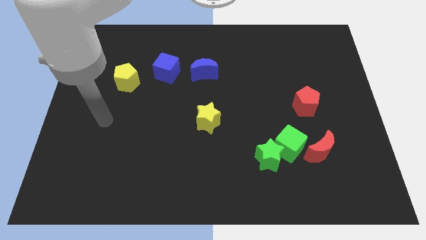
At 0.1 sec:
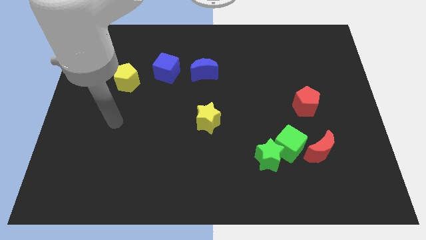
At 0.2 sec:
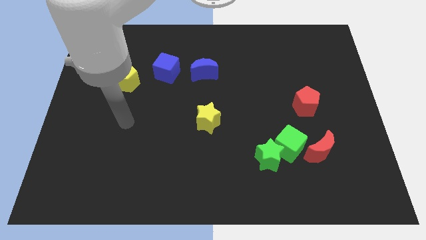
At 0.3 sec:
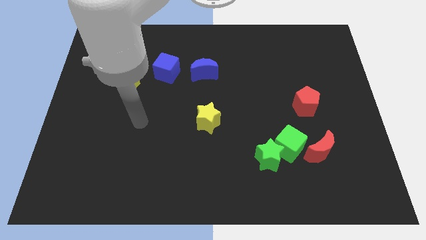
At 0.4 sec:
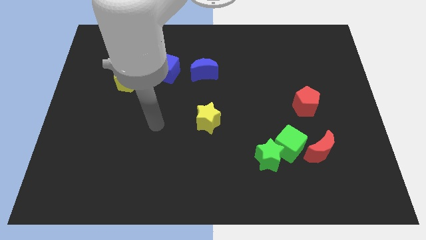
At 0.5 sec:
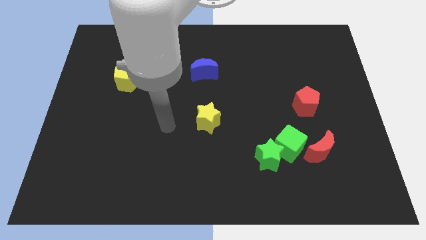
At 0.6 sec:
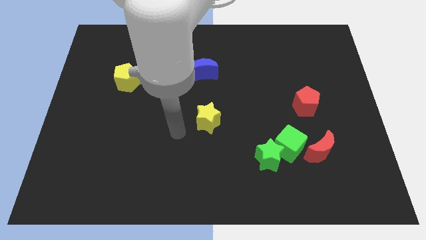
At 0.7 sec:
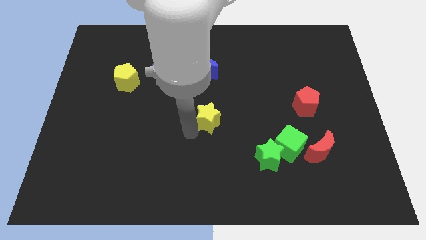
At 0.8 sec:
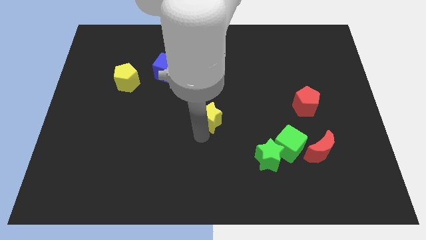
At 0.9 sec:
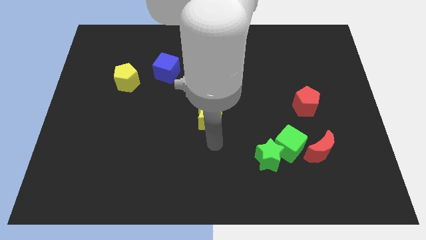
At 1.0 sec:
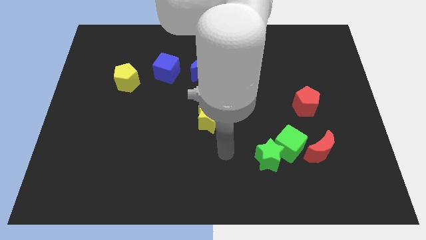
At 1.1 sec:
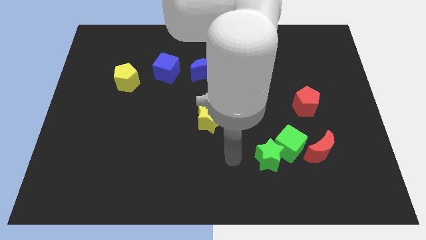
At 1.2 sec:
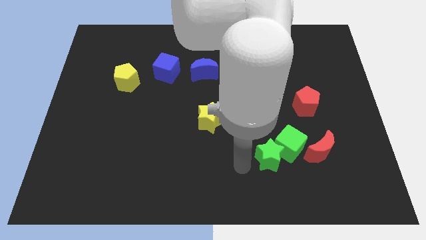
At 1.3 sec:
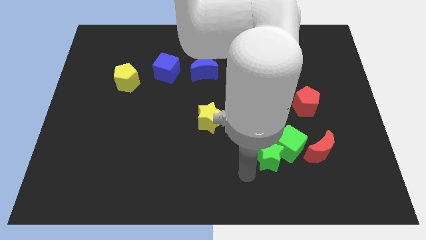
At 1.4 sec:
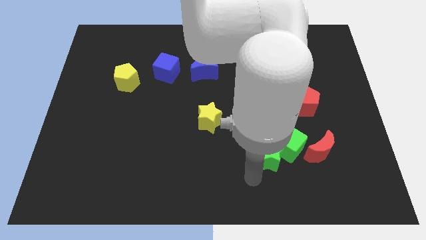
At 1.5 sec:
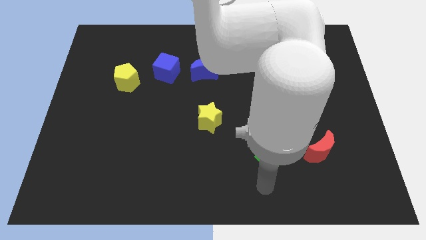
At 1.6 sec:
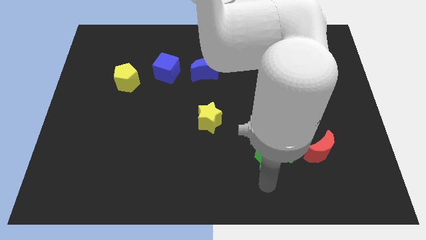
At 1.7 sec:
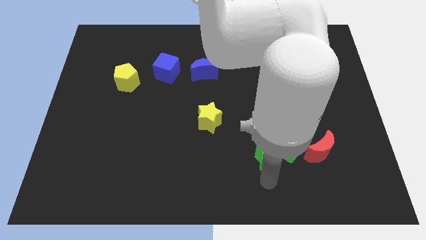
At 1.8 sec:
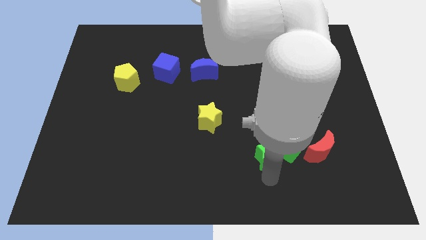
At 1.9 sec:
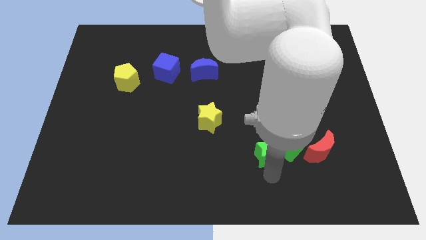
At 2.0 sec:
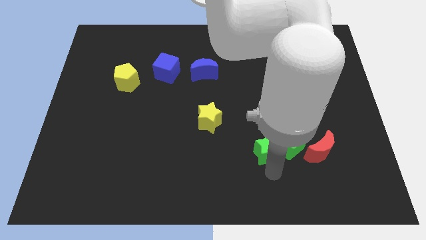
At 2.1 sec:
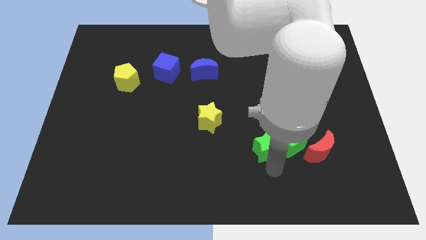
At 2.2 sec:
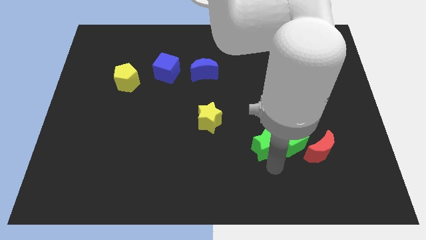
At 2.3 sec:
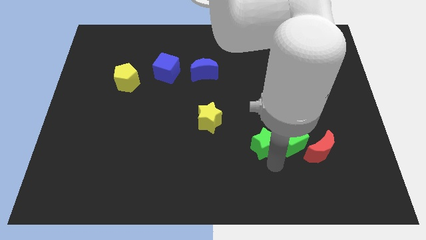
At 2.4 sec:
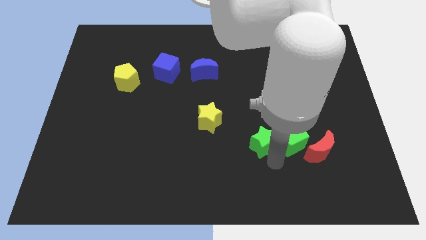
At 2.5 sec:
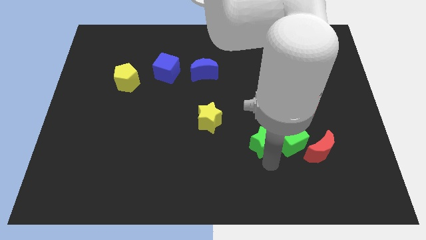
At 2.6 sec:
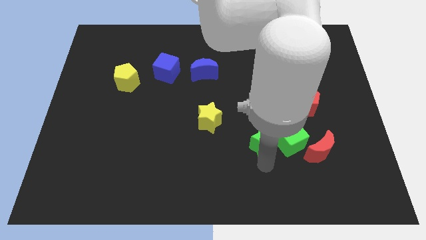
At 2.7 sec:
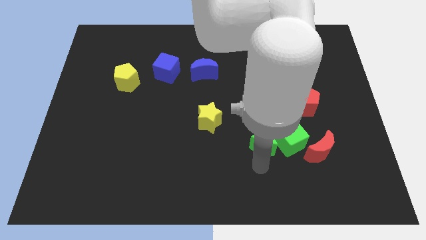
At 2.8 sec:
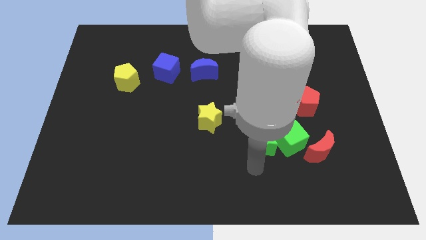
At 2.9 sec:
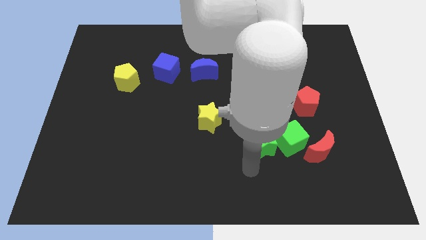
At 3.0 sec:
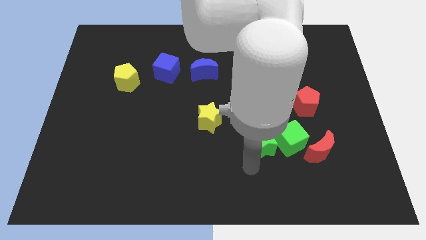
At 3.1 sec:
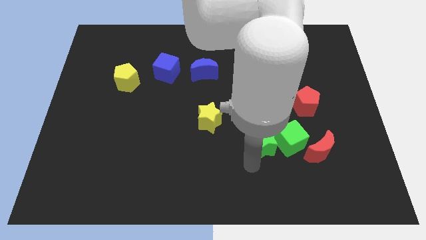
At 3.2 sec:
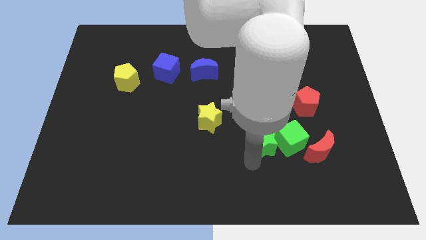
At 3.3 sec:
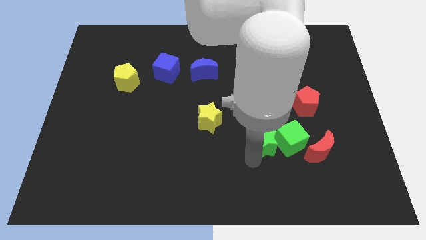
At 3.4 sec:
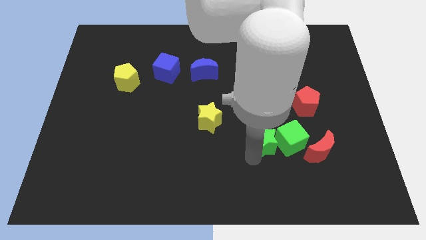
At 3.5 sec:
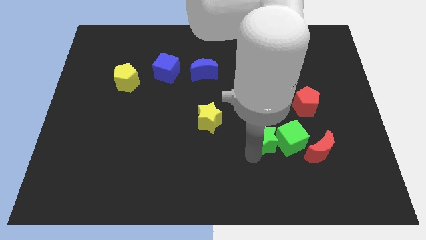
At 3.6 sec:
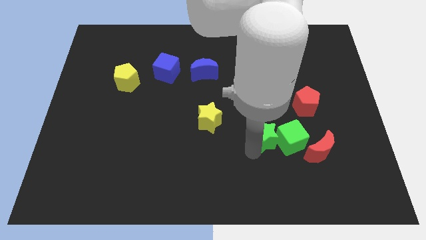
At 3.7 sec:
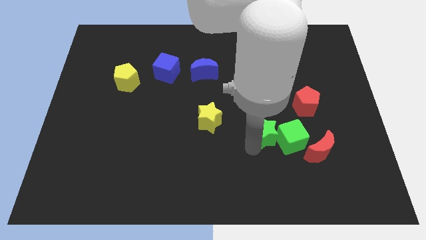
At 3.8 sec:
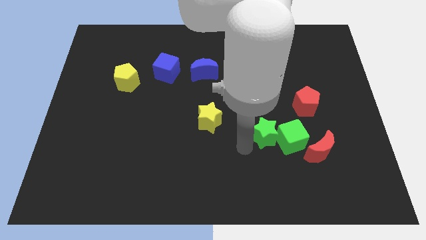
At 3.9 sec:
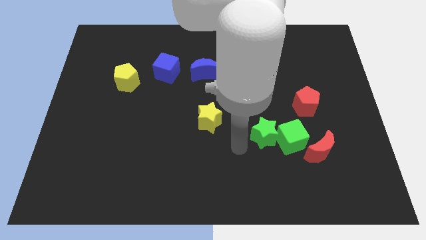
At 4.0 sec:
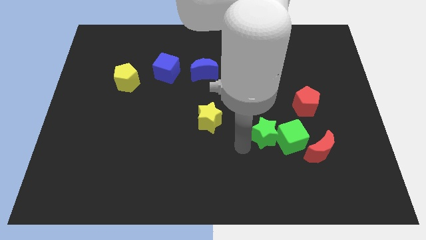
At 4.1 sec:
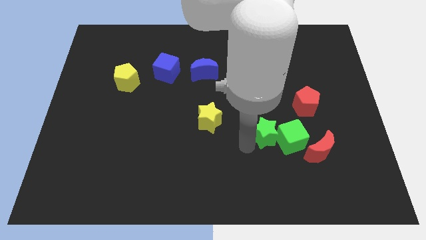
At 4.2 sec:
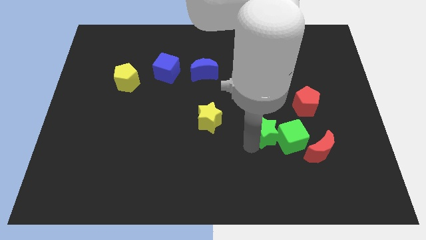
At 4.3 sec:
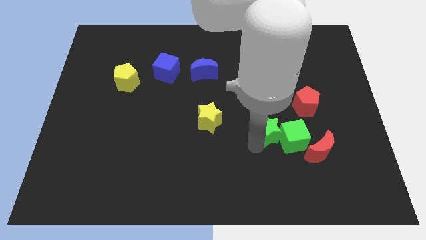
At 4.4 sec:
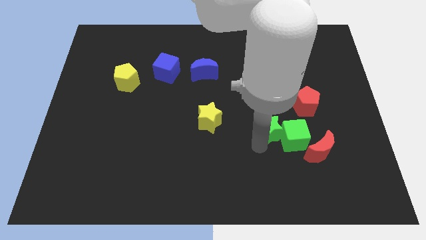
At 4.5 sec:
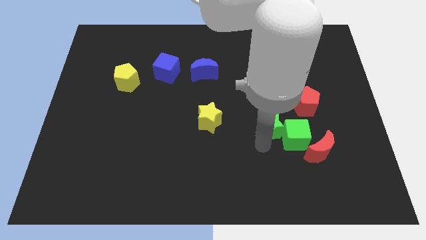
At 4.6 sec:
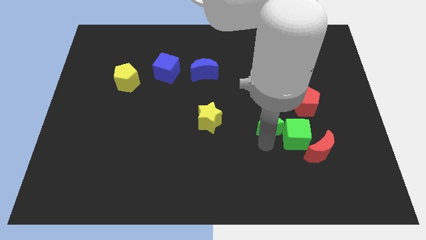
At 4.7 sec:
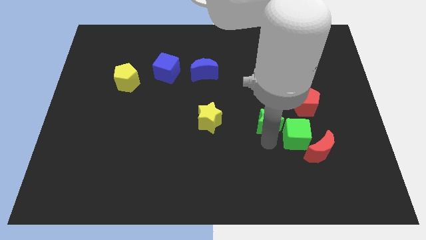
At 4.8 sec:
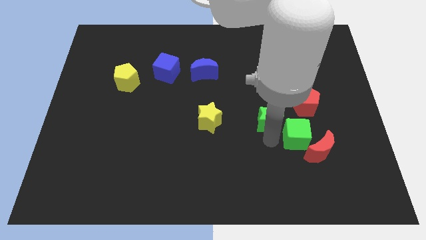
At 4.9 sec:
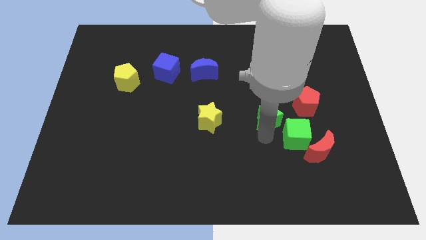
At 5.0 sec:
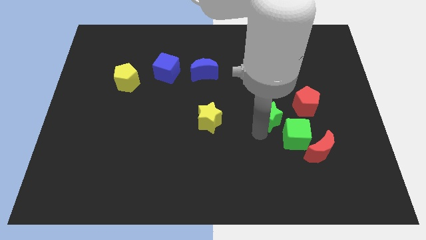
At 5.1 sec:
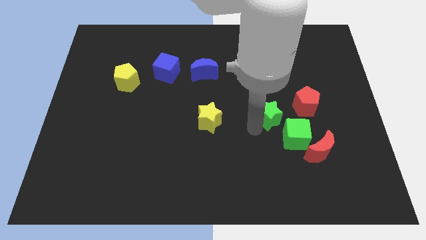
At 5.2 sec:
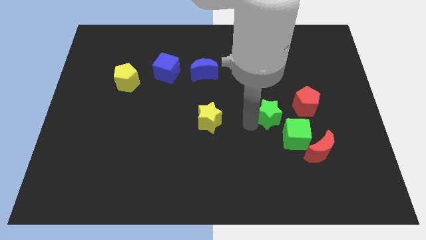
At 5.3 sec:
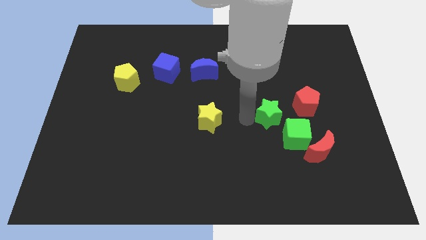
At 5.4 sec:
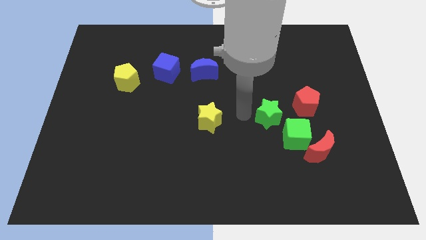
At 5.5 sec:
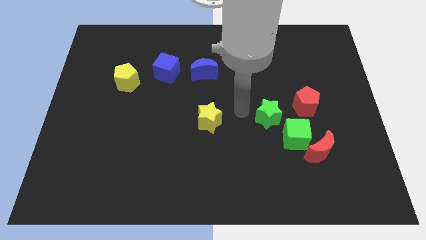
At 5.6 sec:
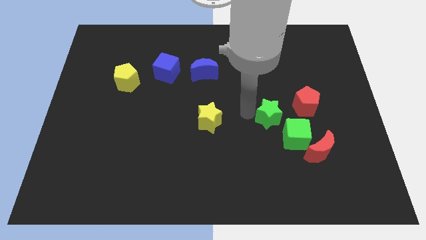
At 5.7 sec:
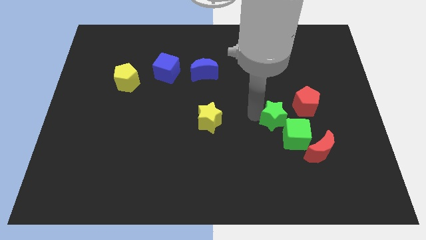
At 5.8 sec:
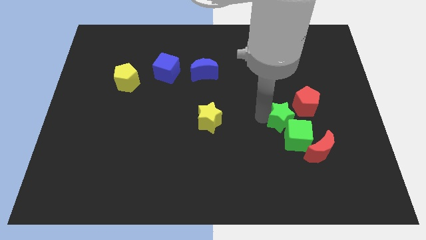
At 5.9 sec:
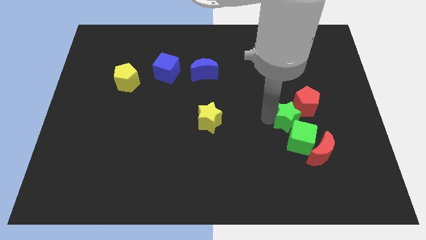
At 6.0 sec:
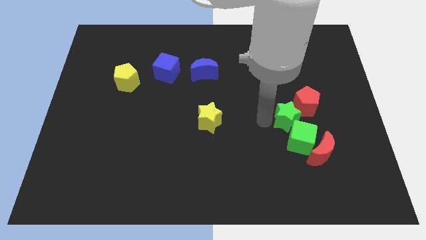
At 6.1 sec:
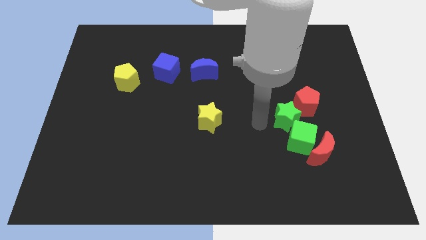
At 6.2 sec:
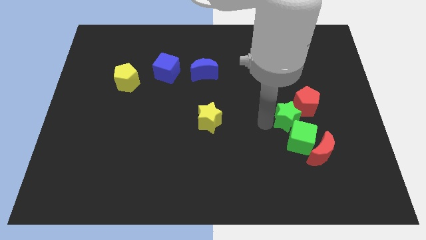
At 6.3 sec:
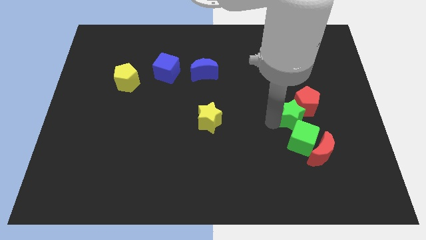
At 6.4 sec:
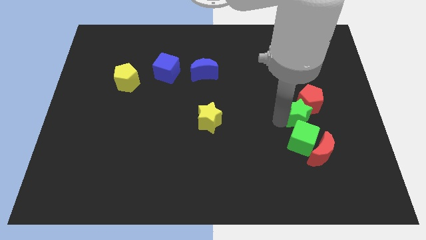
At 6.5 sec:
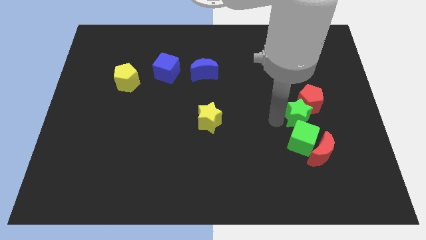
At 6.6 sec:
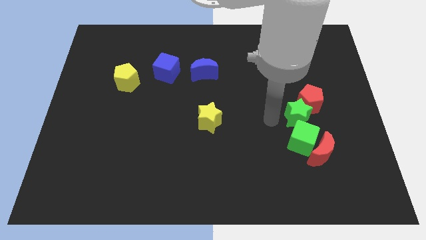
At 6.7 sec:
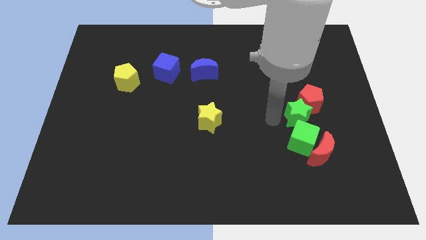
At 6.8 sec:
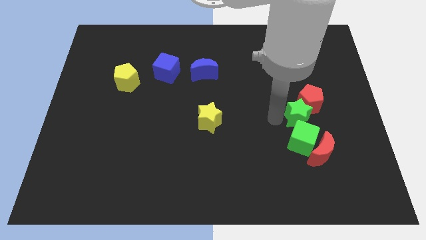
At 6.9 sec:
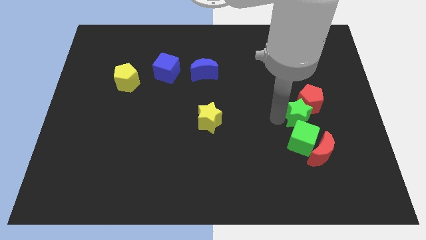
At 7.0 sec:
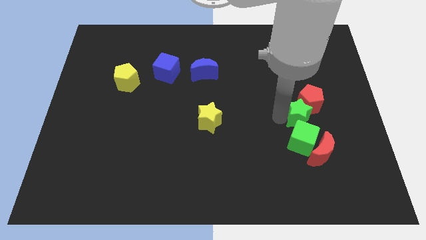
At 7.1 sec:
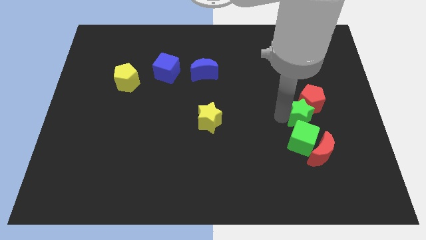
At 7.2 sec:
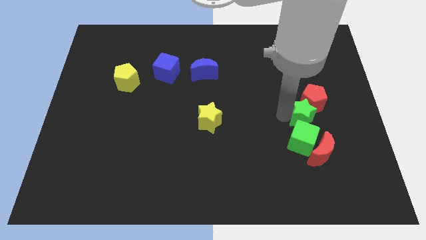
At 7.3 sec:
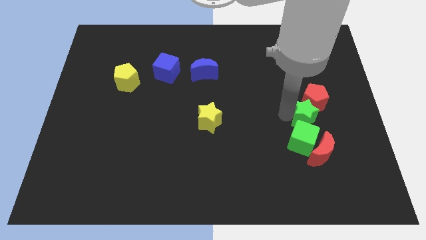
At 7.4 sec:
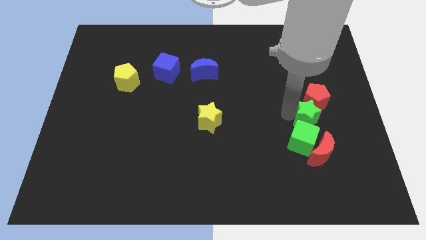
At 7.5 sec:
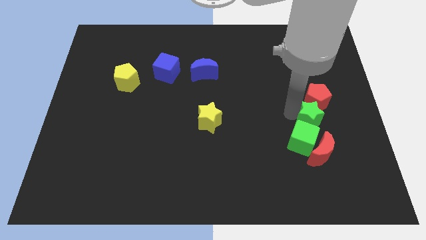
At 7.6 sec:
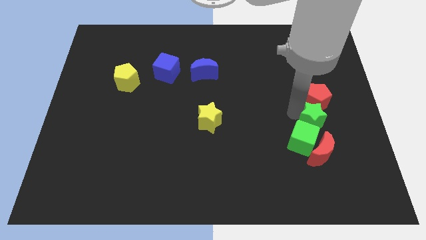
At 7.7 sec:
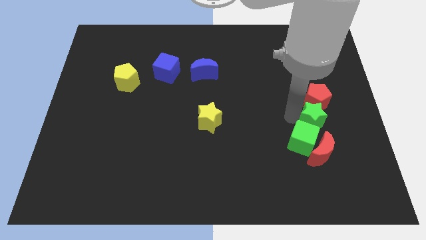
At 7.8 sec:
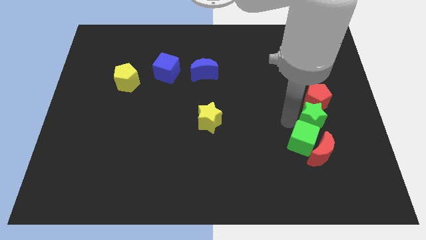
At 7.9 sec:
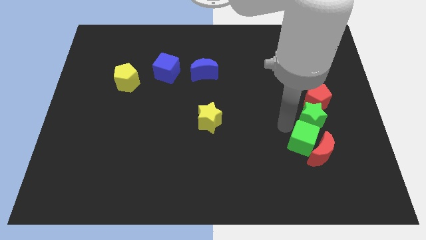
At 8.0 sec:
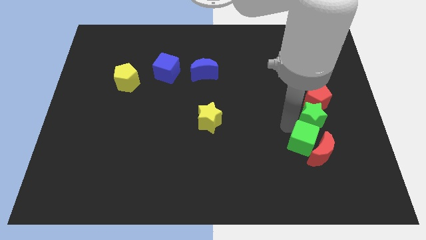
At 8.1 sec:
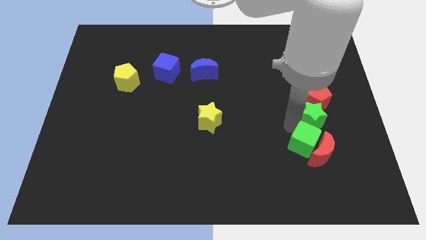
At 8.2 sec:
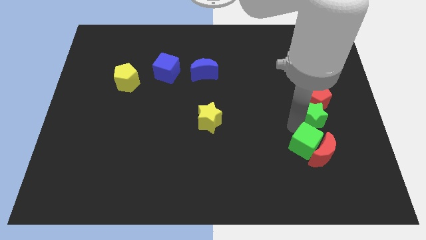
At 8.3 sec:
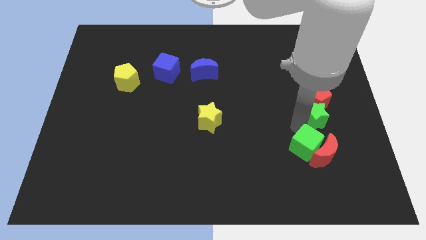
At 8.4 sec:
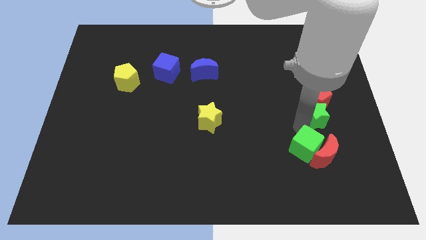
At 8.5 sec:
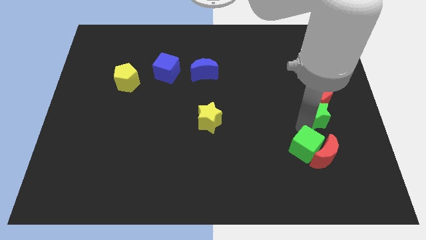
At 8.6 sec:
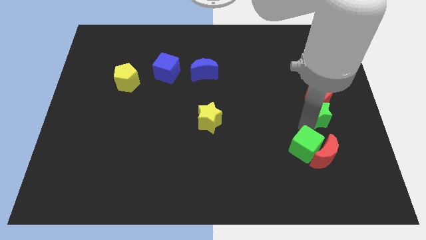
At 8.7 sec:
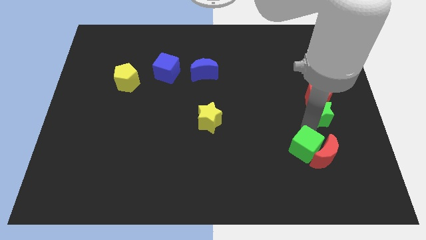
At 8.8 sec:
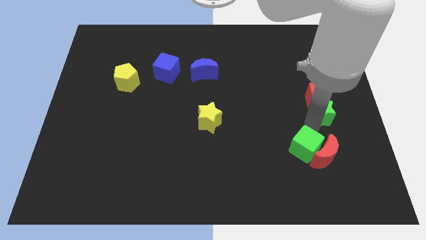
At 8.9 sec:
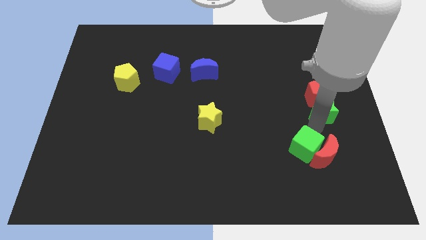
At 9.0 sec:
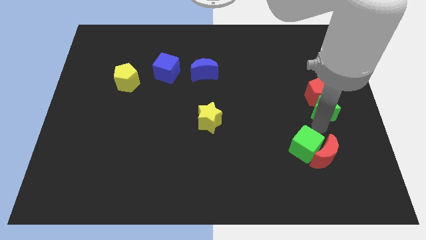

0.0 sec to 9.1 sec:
slide the green star to the right side
